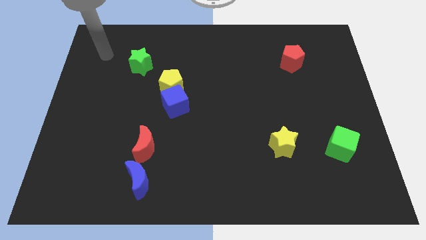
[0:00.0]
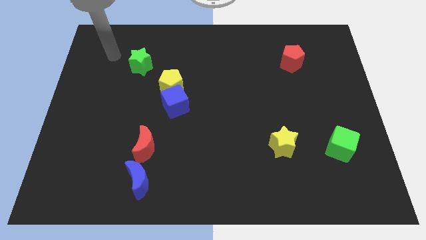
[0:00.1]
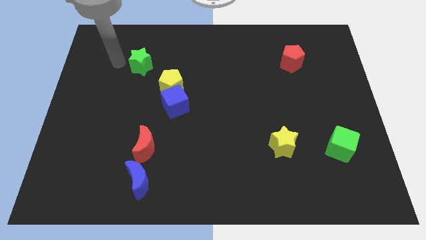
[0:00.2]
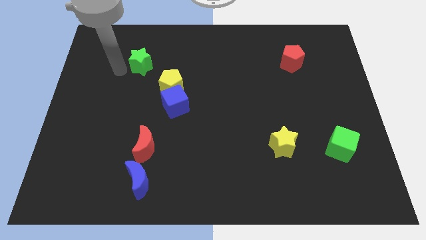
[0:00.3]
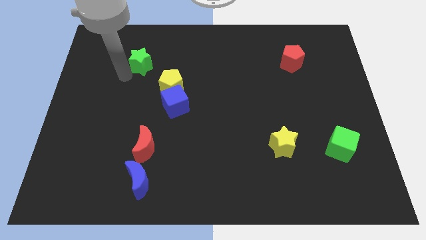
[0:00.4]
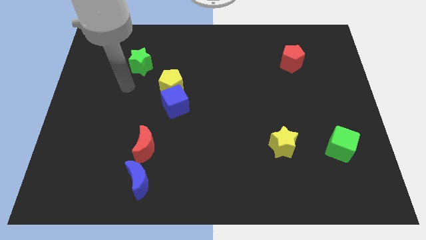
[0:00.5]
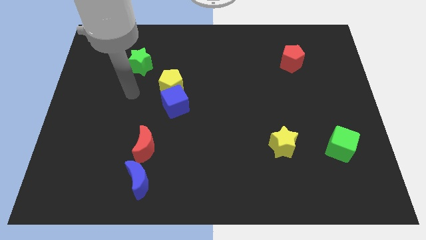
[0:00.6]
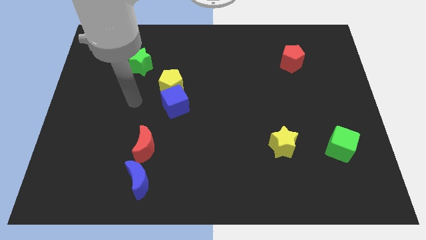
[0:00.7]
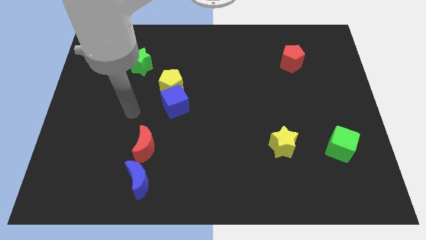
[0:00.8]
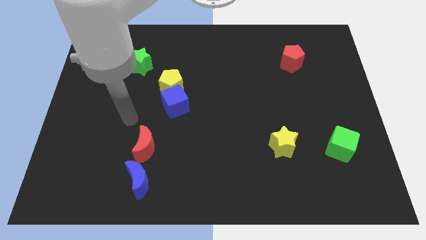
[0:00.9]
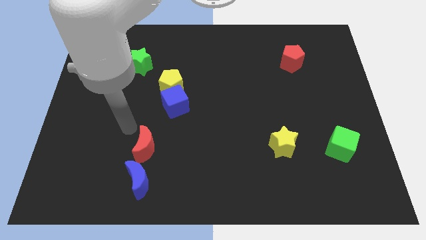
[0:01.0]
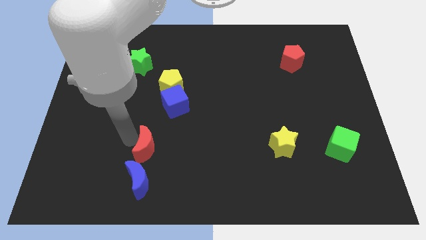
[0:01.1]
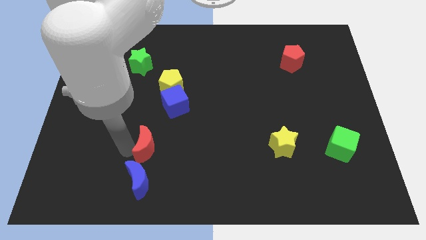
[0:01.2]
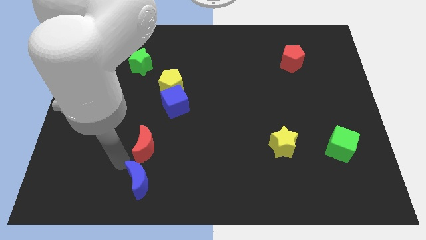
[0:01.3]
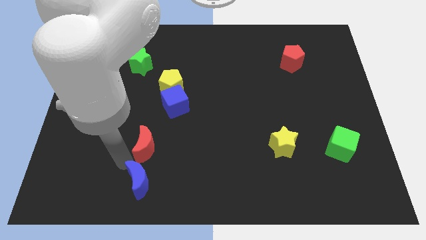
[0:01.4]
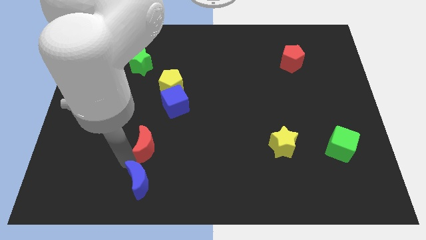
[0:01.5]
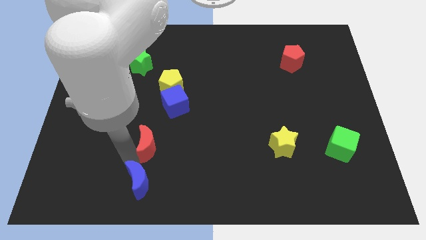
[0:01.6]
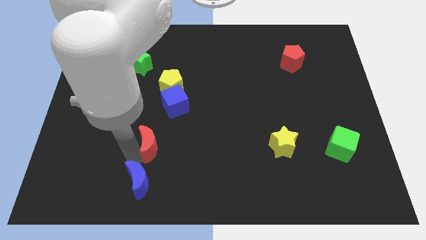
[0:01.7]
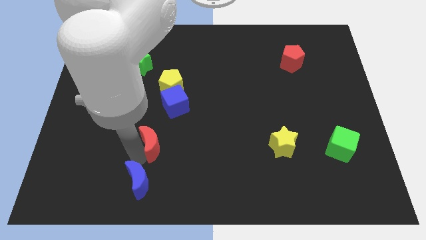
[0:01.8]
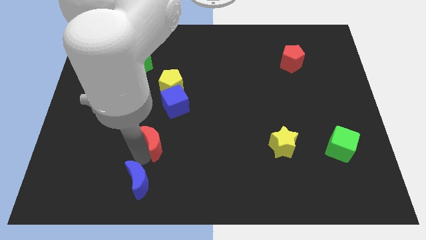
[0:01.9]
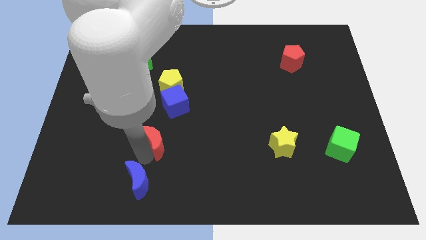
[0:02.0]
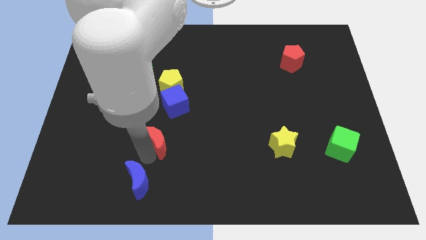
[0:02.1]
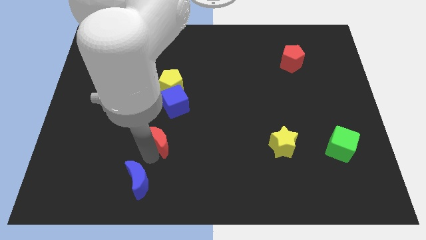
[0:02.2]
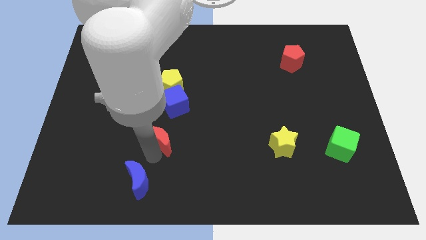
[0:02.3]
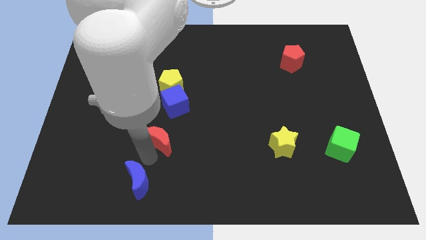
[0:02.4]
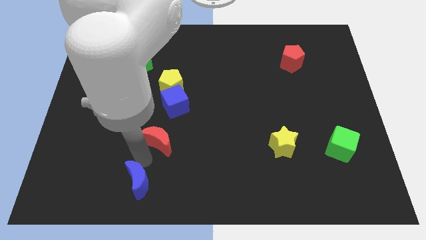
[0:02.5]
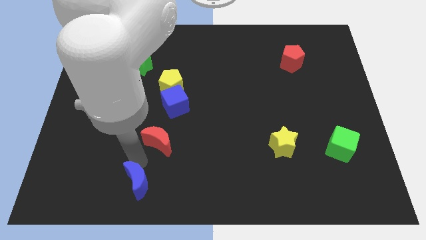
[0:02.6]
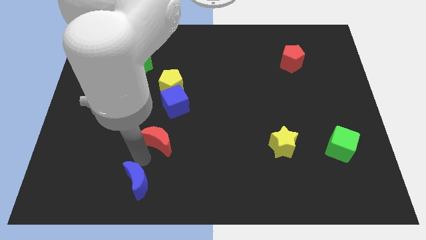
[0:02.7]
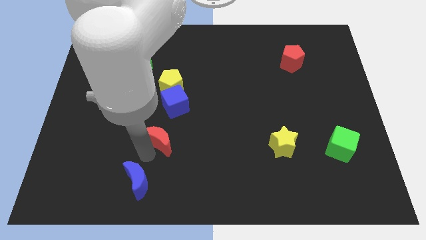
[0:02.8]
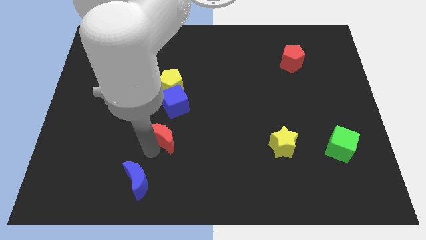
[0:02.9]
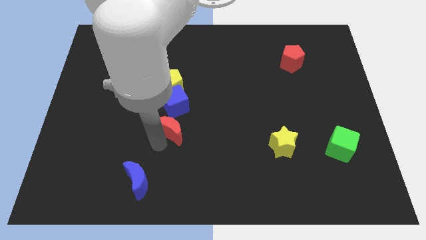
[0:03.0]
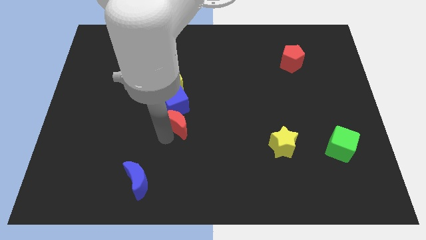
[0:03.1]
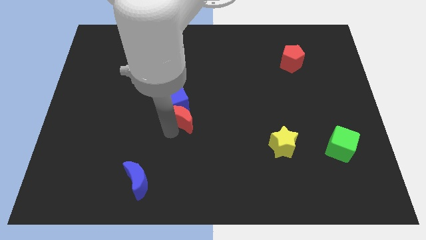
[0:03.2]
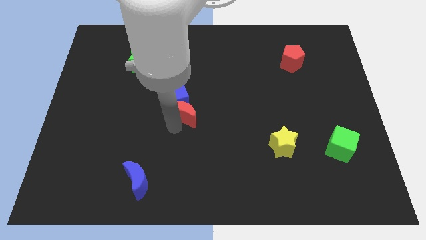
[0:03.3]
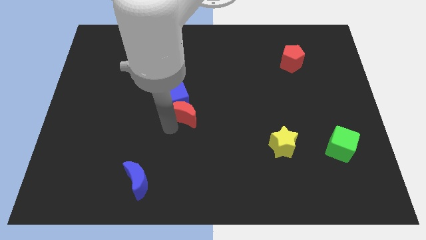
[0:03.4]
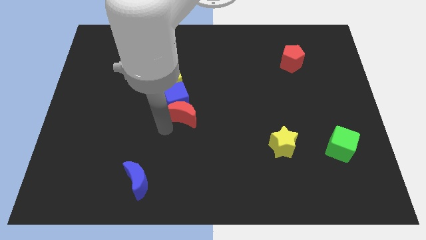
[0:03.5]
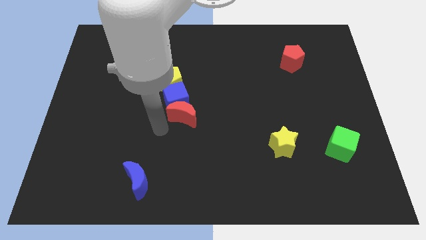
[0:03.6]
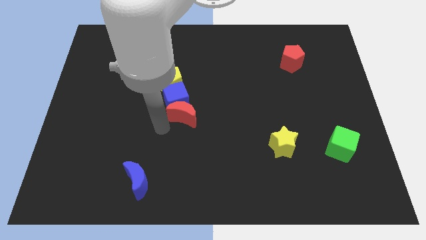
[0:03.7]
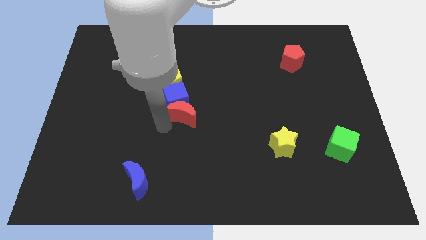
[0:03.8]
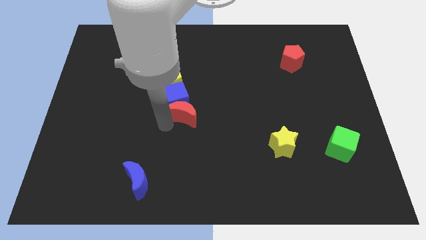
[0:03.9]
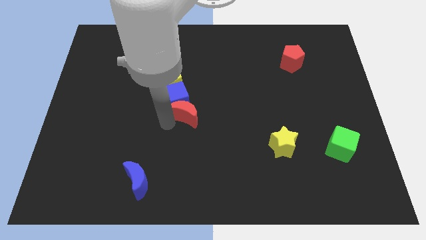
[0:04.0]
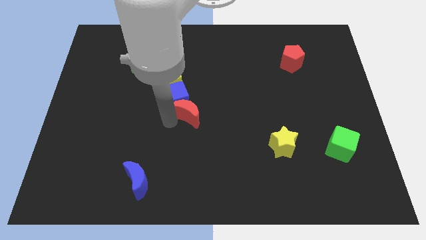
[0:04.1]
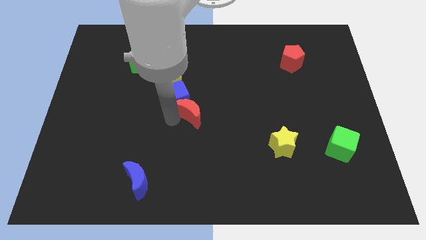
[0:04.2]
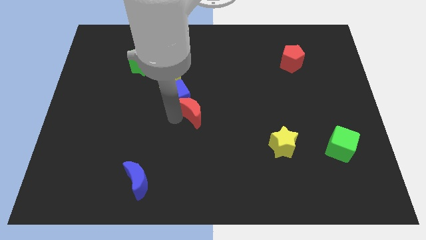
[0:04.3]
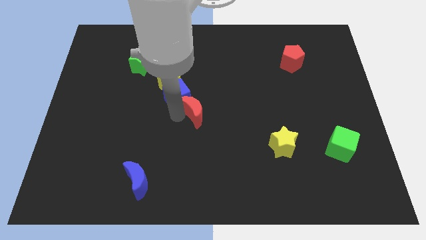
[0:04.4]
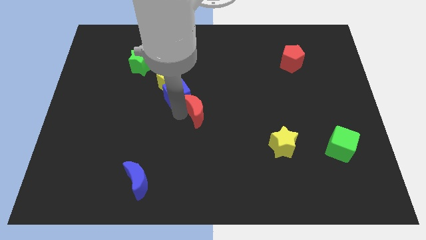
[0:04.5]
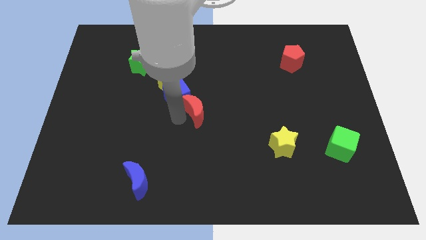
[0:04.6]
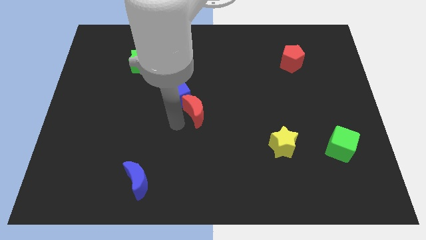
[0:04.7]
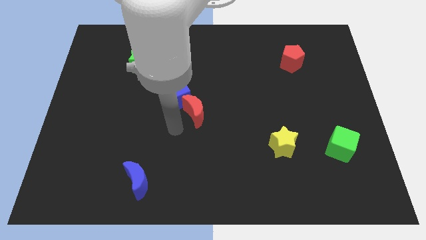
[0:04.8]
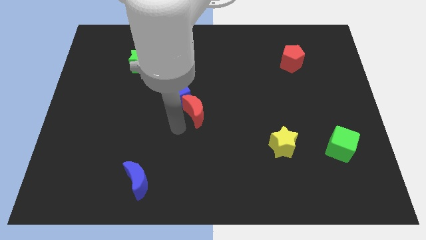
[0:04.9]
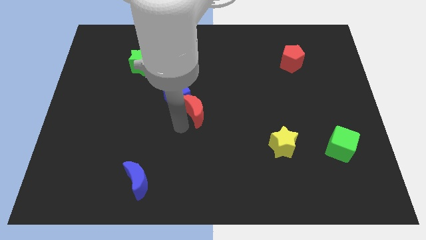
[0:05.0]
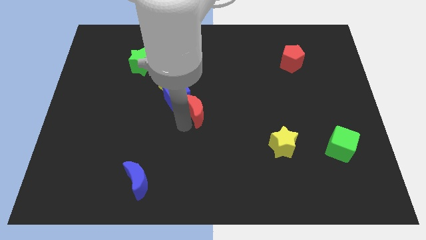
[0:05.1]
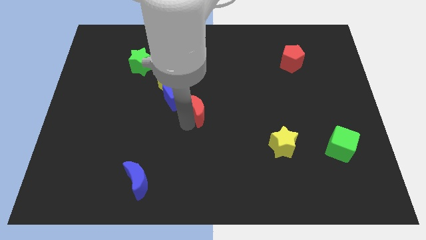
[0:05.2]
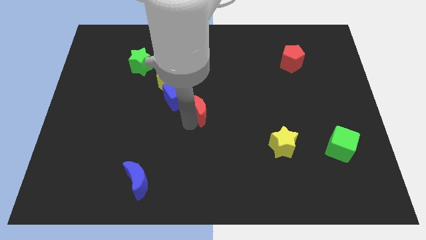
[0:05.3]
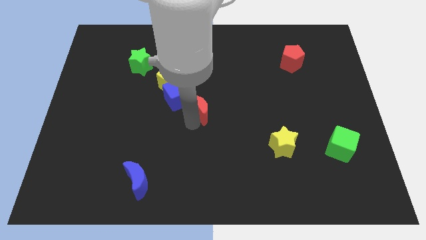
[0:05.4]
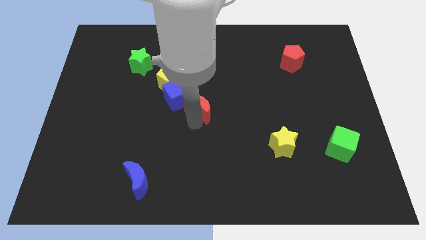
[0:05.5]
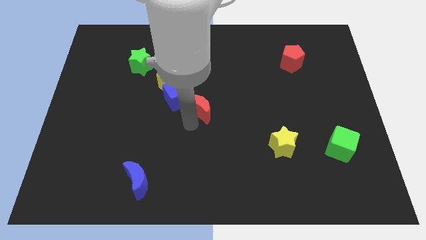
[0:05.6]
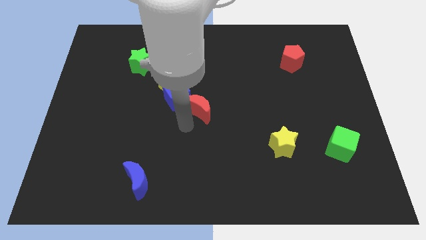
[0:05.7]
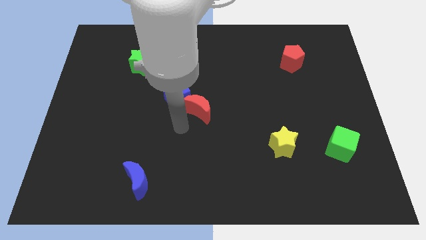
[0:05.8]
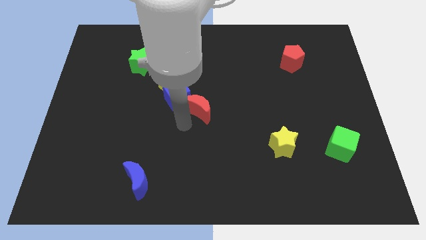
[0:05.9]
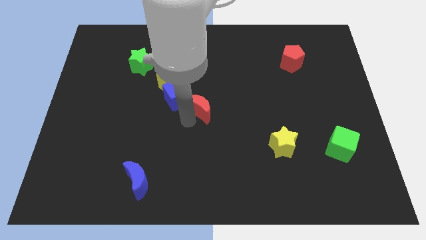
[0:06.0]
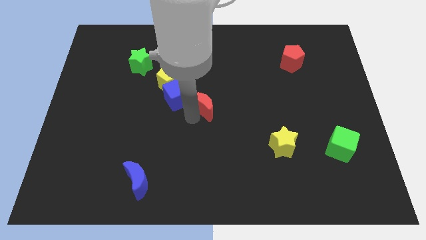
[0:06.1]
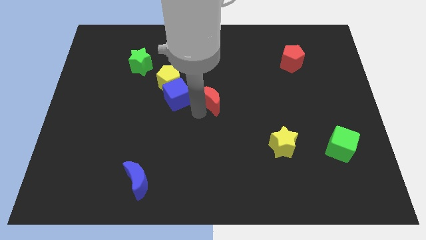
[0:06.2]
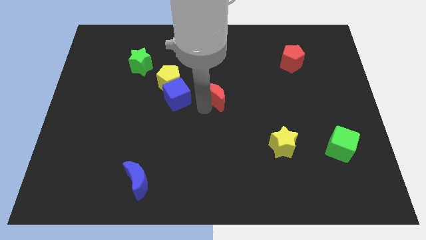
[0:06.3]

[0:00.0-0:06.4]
push the red moon upwards and to the right

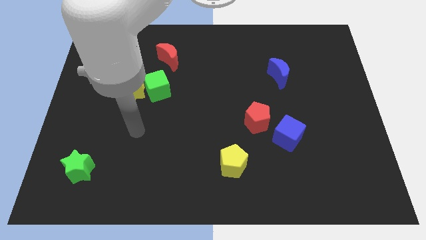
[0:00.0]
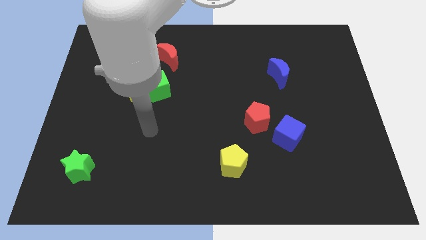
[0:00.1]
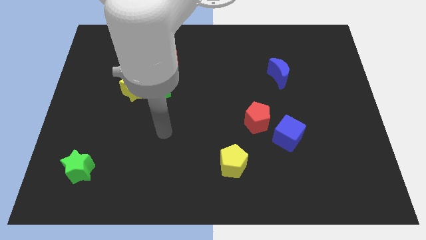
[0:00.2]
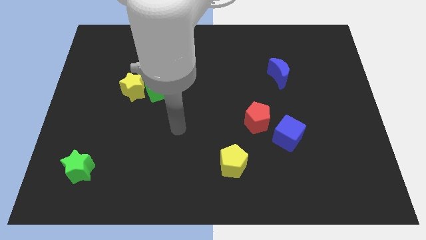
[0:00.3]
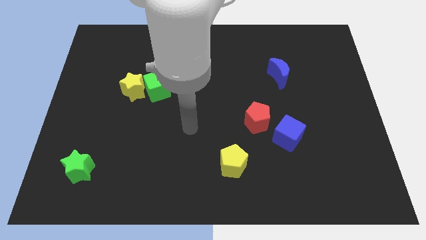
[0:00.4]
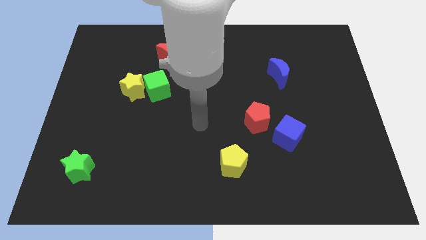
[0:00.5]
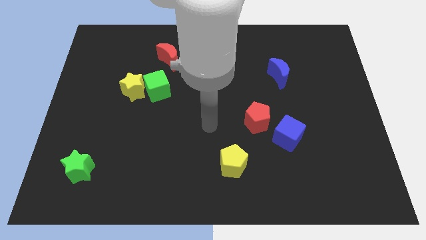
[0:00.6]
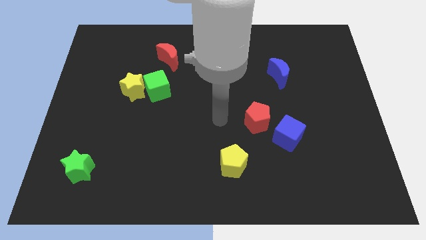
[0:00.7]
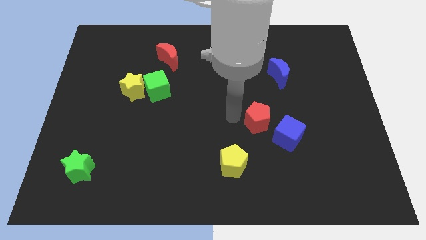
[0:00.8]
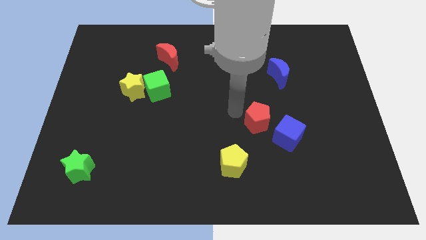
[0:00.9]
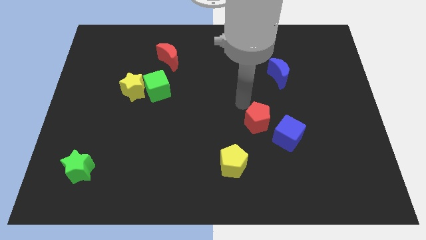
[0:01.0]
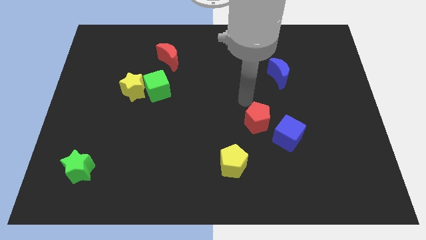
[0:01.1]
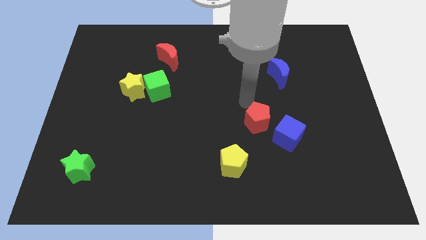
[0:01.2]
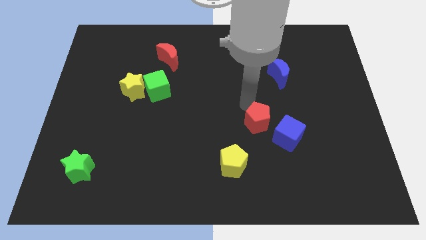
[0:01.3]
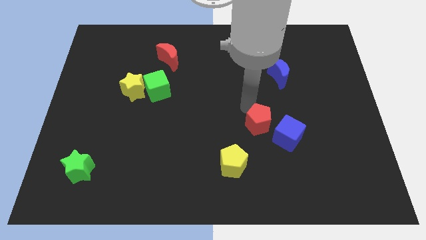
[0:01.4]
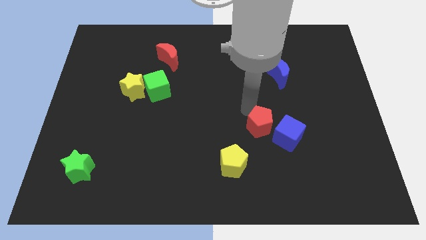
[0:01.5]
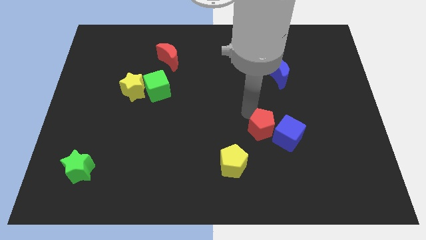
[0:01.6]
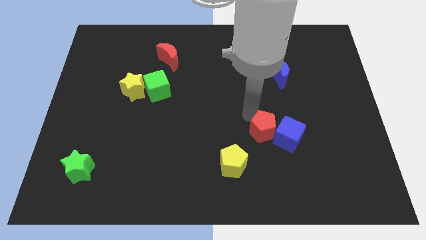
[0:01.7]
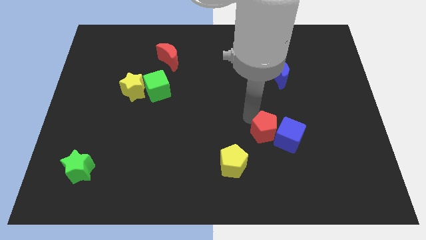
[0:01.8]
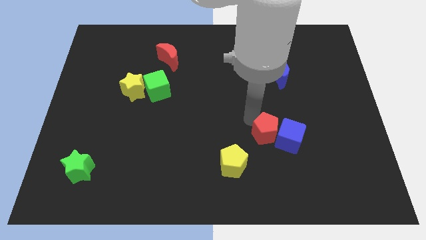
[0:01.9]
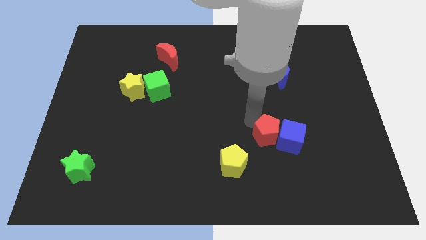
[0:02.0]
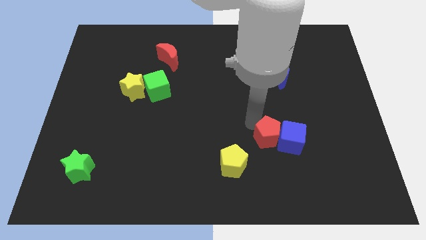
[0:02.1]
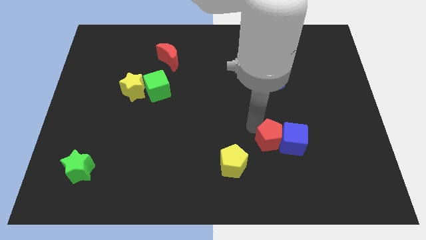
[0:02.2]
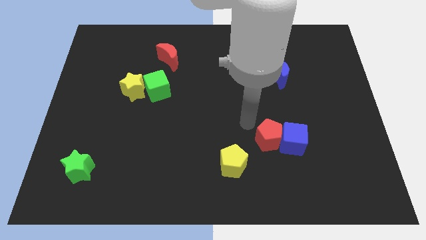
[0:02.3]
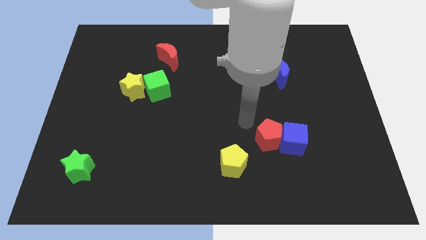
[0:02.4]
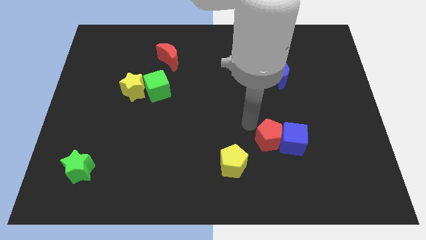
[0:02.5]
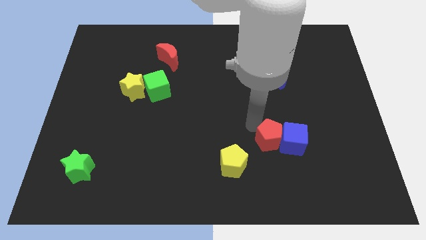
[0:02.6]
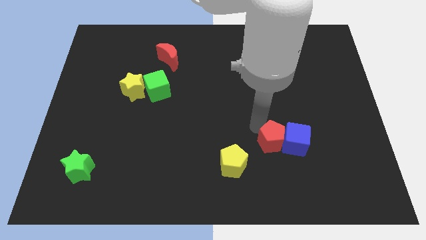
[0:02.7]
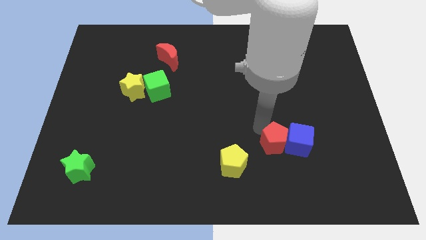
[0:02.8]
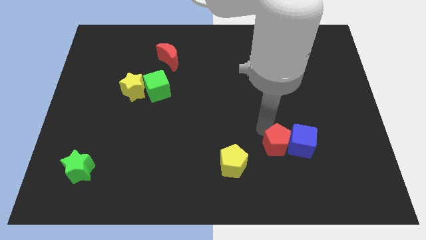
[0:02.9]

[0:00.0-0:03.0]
slide the red pentagon down and right somewhat
